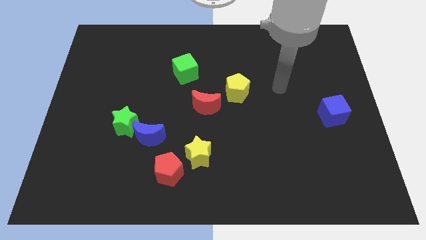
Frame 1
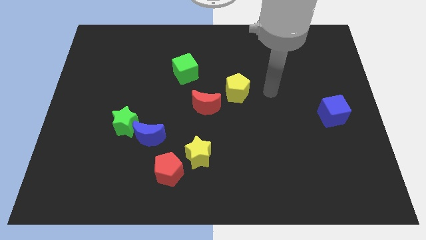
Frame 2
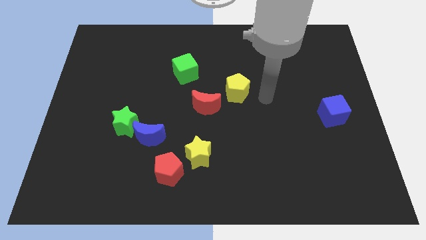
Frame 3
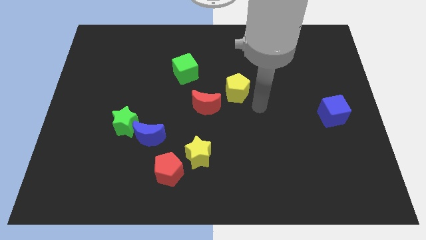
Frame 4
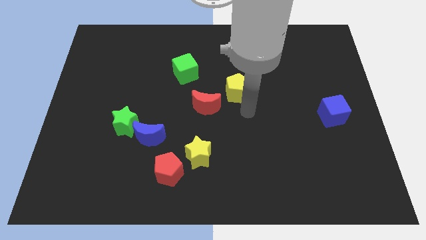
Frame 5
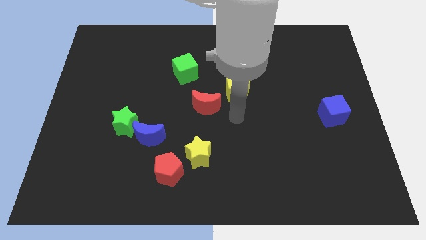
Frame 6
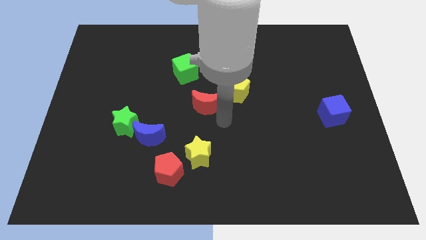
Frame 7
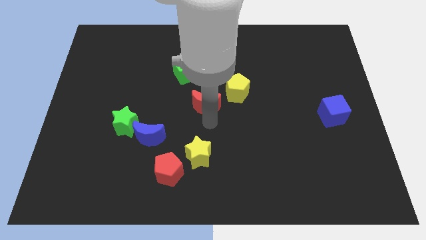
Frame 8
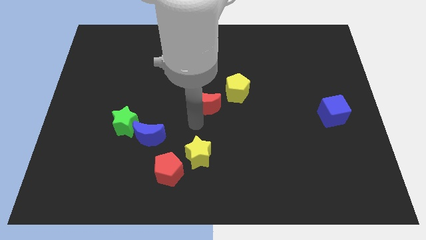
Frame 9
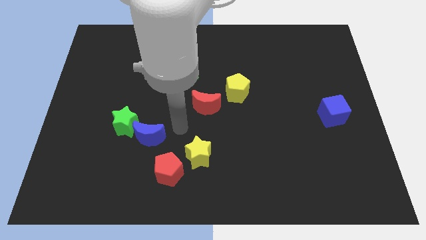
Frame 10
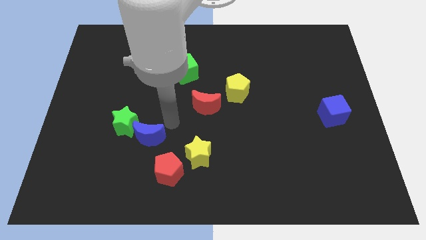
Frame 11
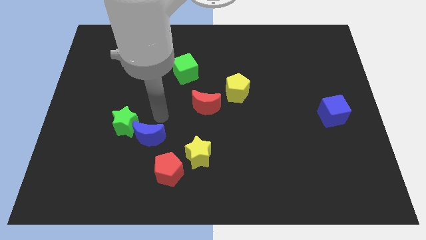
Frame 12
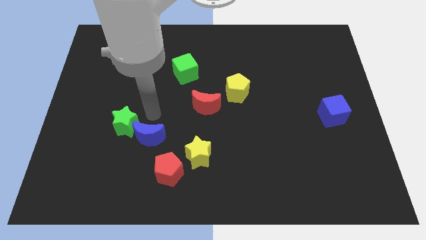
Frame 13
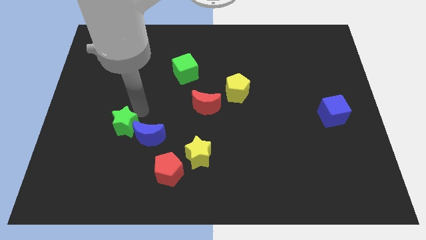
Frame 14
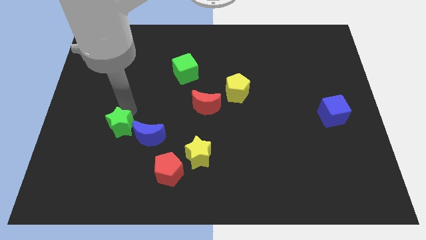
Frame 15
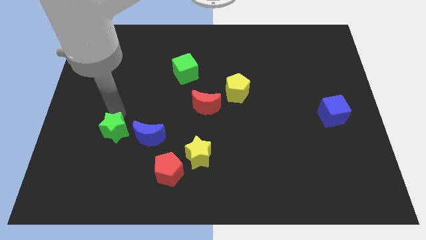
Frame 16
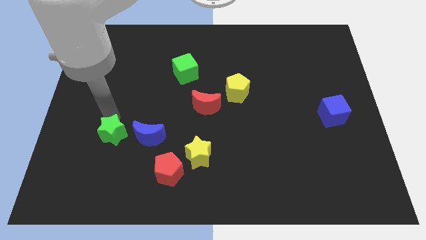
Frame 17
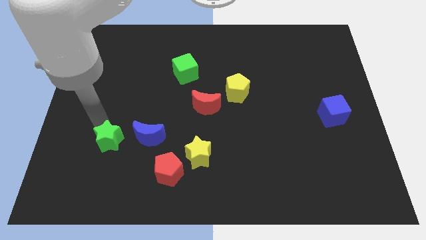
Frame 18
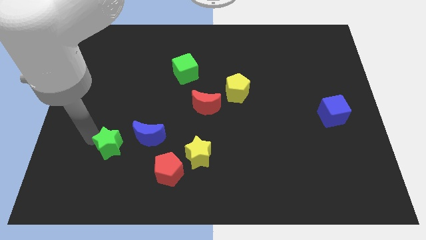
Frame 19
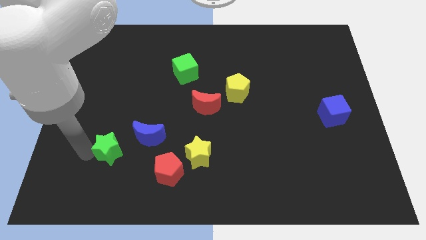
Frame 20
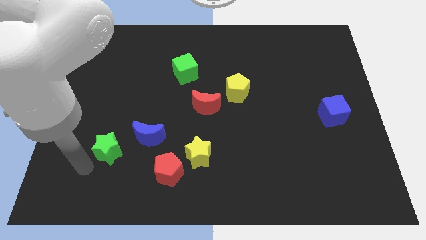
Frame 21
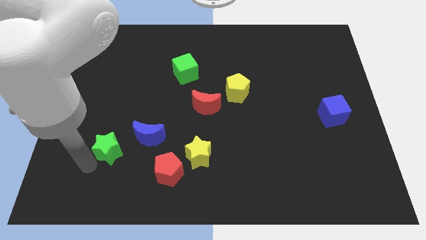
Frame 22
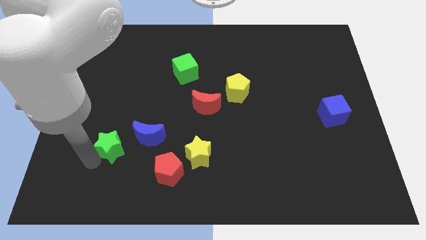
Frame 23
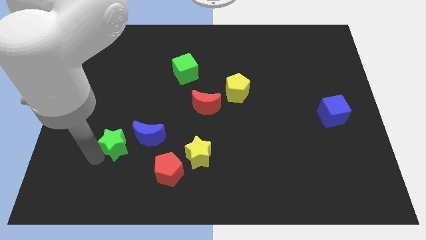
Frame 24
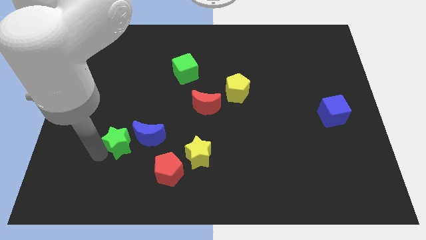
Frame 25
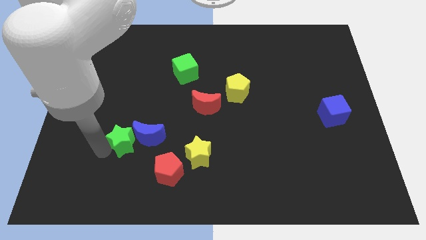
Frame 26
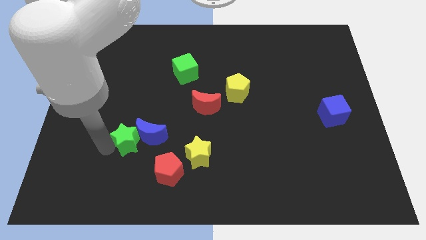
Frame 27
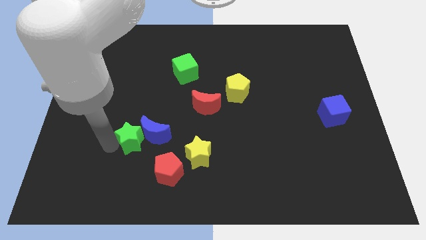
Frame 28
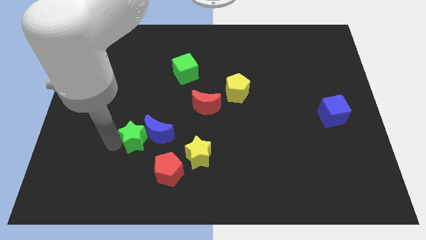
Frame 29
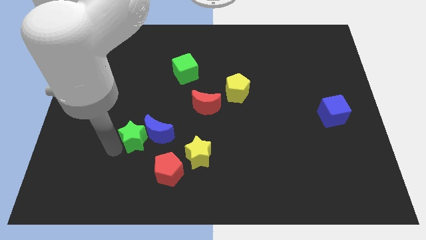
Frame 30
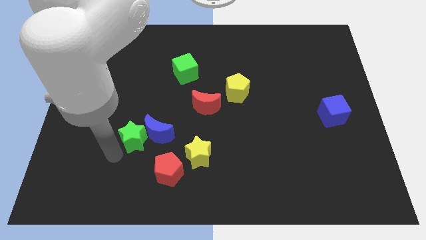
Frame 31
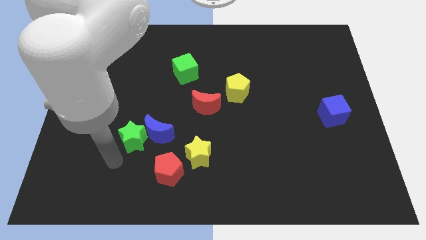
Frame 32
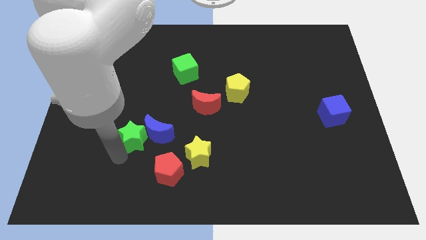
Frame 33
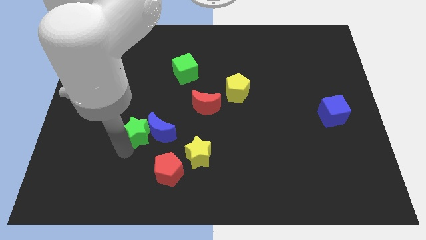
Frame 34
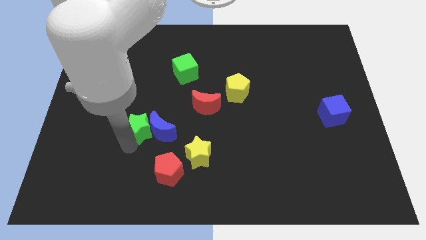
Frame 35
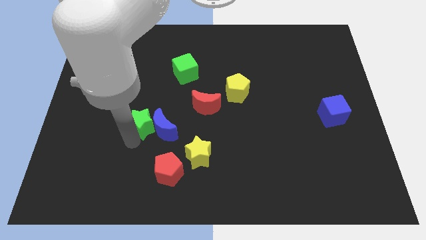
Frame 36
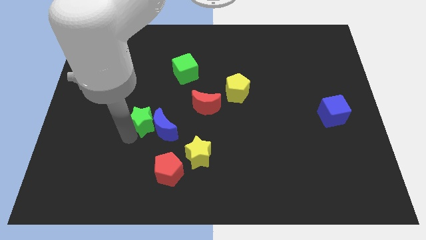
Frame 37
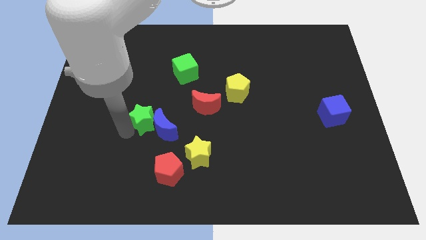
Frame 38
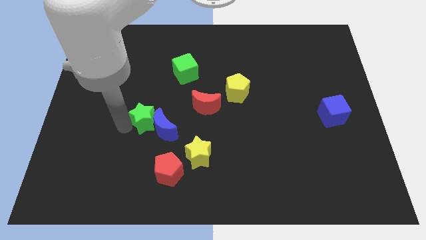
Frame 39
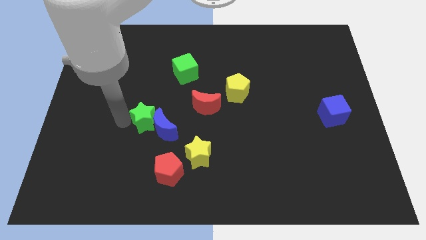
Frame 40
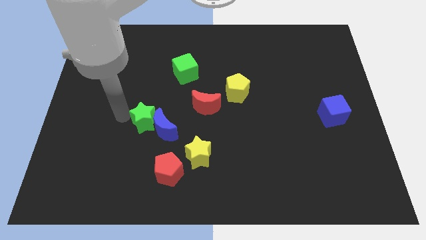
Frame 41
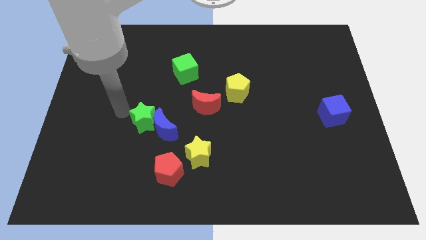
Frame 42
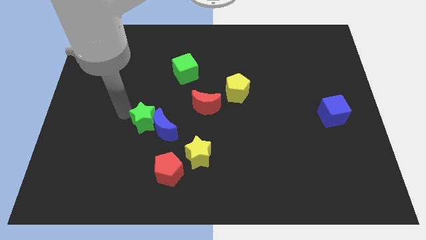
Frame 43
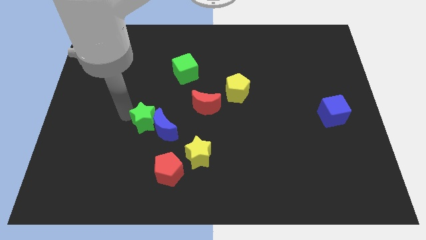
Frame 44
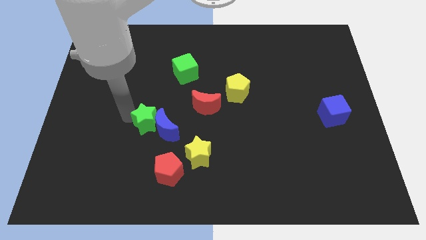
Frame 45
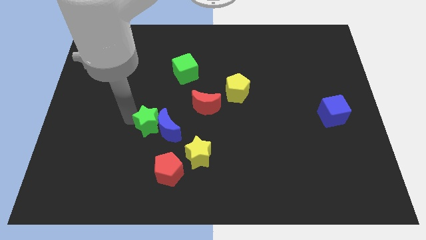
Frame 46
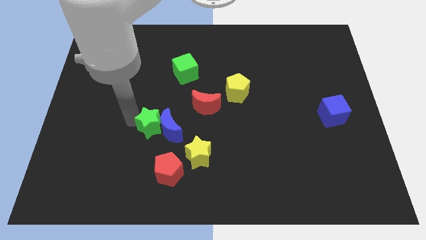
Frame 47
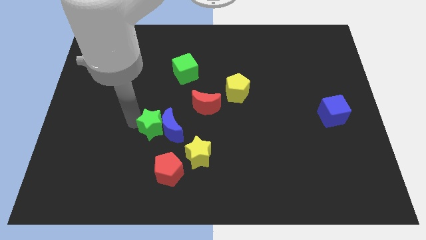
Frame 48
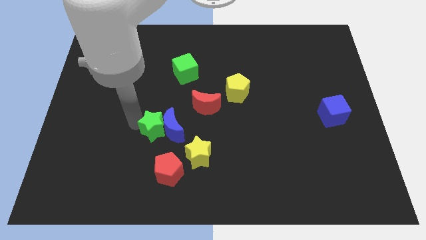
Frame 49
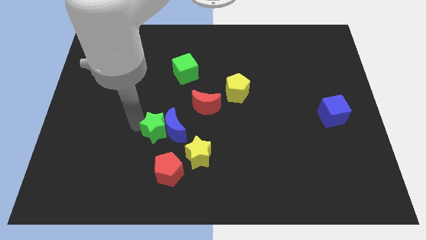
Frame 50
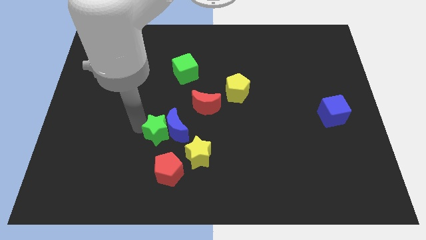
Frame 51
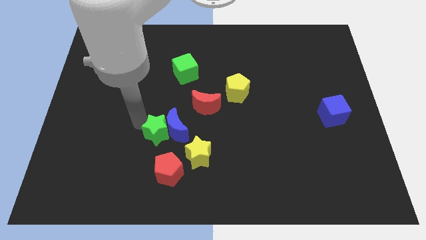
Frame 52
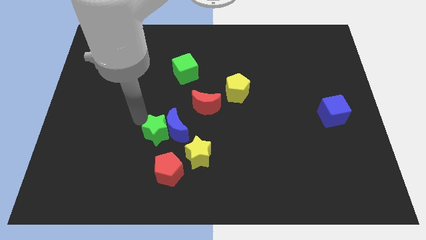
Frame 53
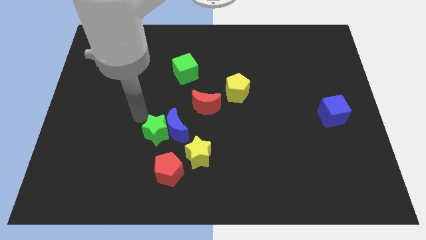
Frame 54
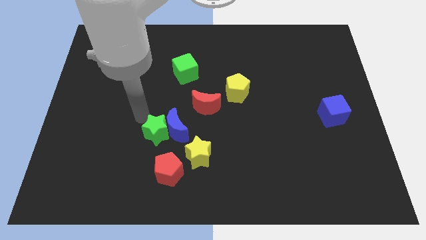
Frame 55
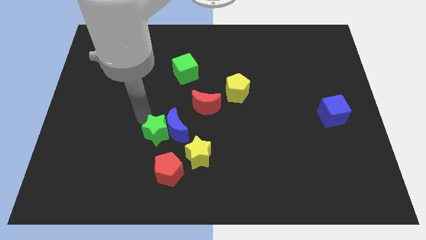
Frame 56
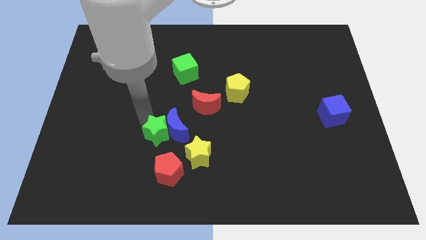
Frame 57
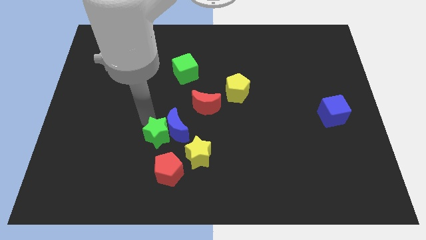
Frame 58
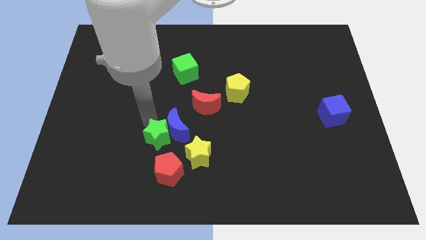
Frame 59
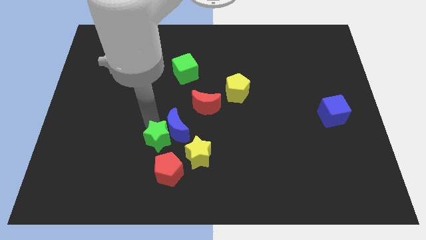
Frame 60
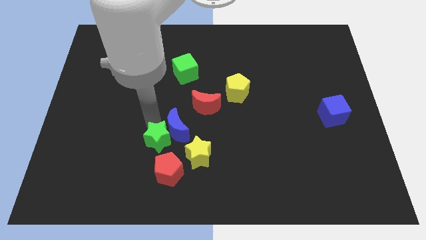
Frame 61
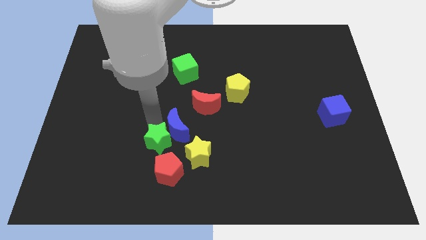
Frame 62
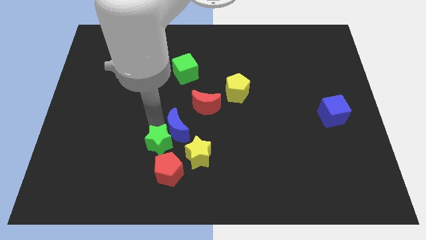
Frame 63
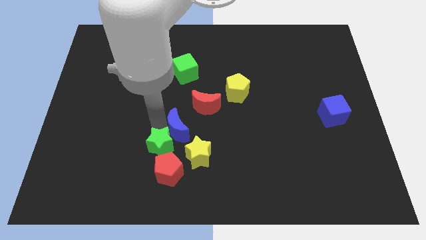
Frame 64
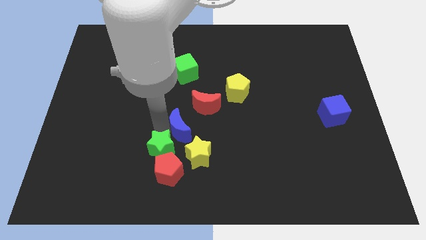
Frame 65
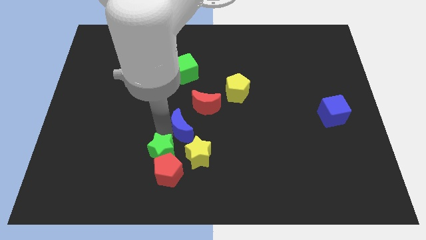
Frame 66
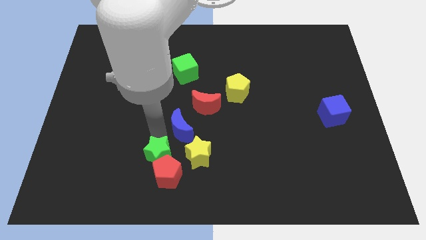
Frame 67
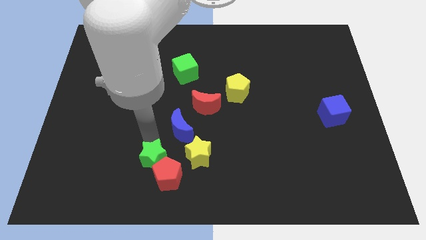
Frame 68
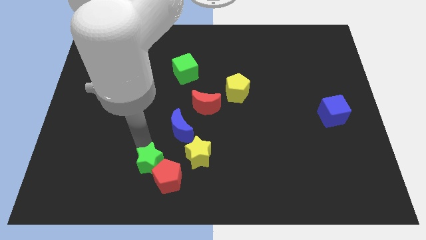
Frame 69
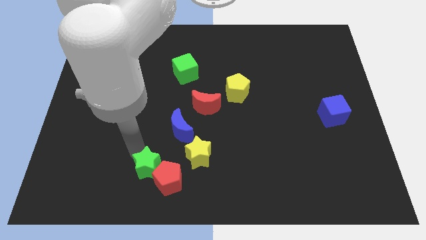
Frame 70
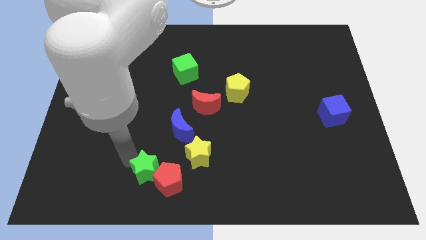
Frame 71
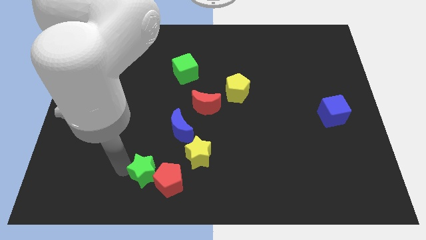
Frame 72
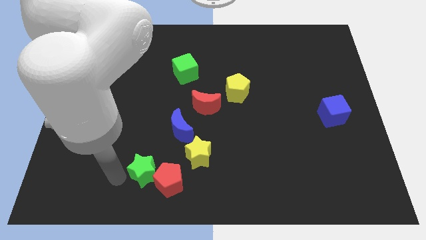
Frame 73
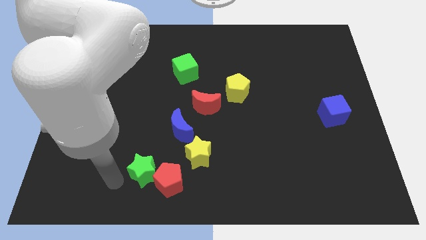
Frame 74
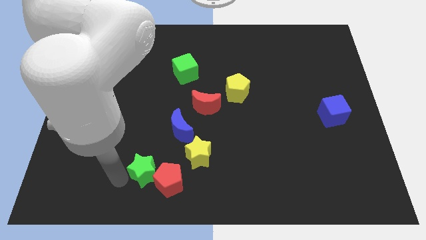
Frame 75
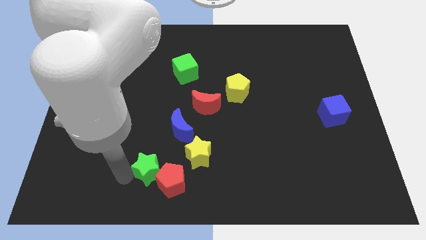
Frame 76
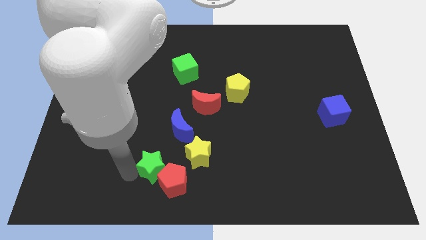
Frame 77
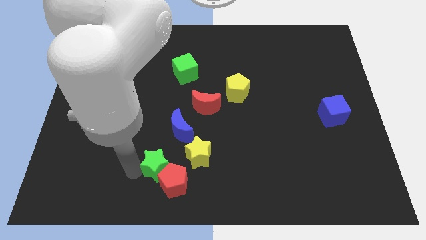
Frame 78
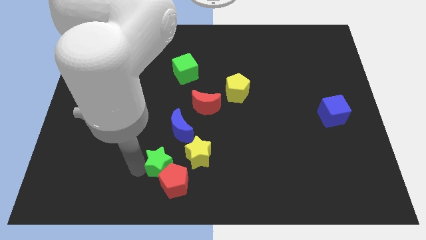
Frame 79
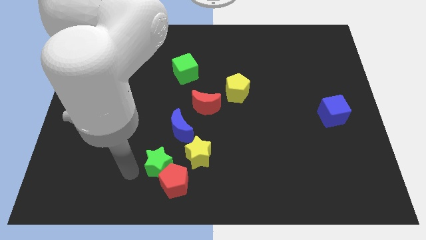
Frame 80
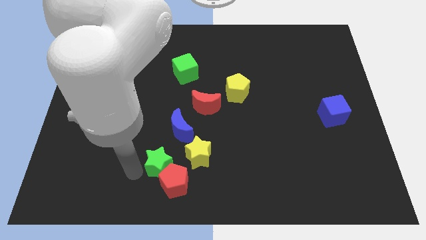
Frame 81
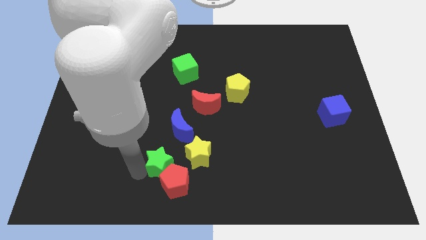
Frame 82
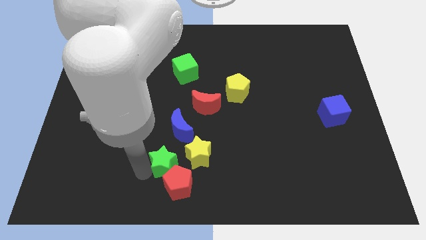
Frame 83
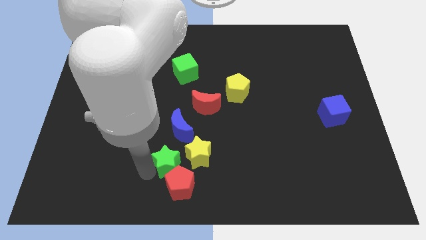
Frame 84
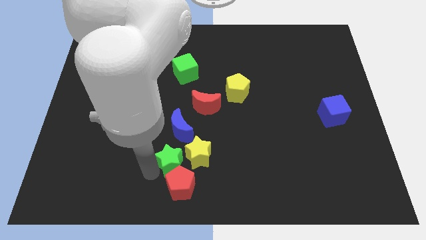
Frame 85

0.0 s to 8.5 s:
slide the green star towards the yellow star
